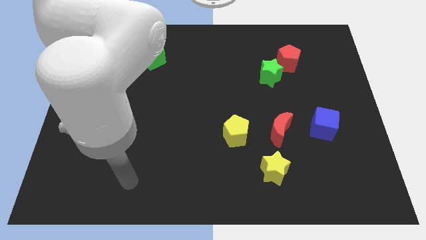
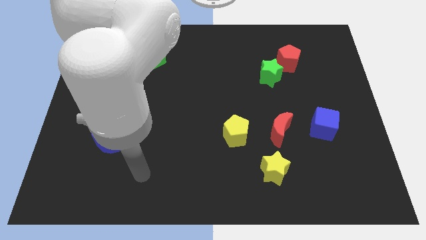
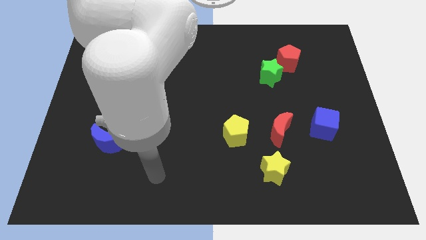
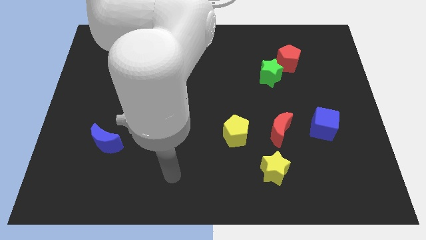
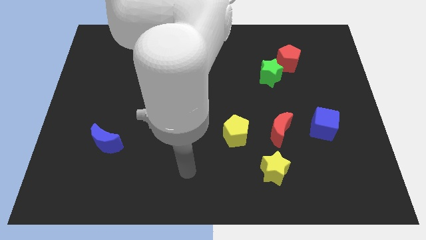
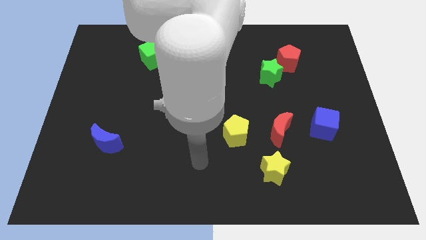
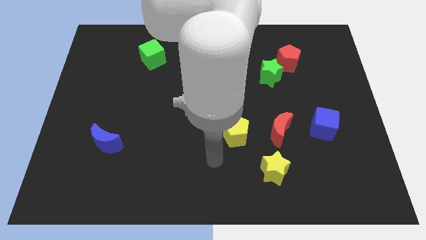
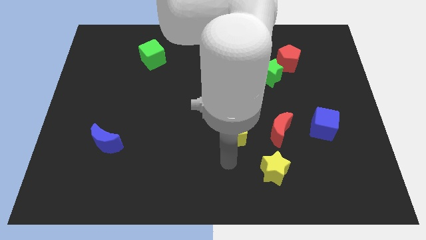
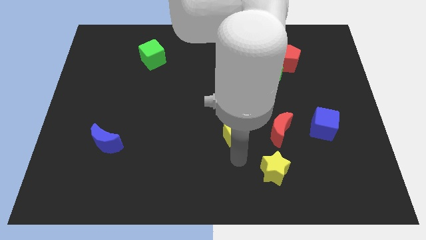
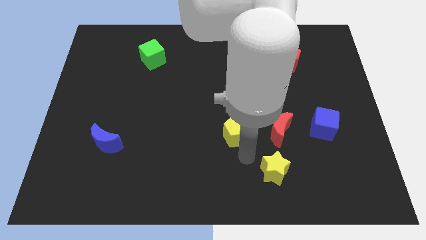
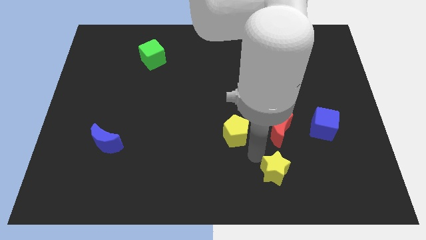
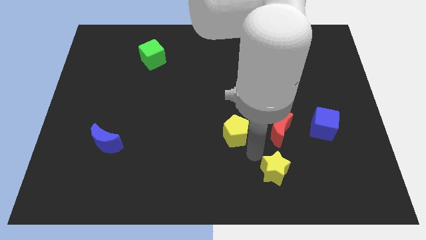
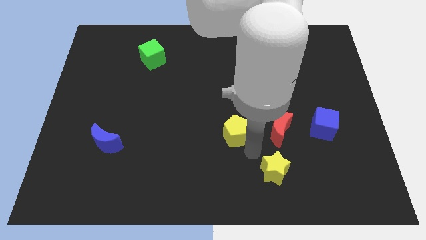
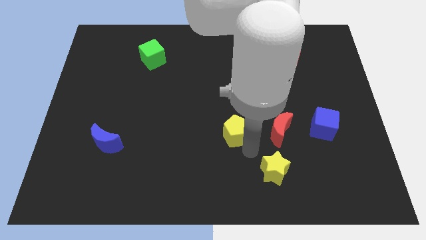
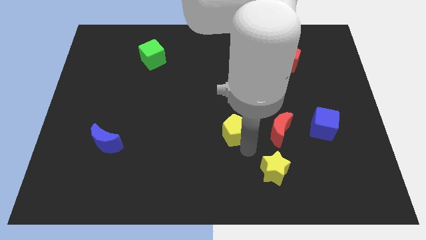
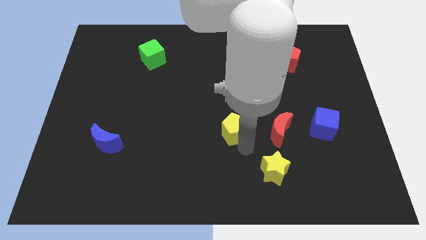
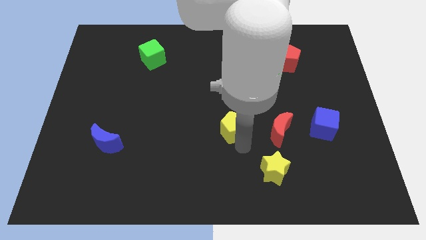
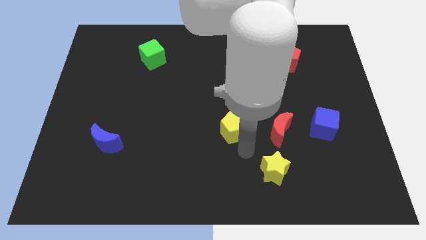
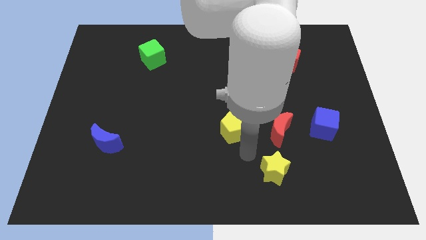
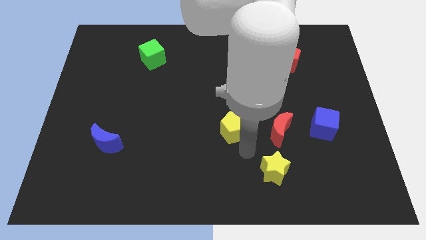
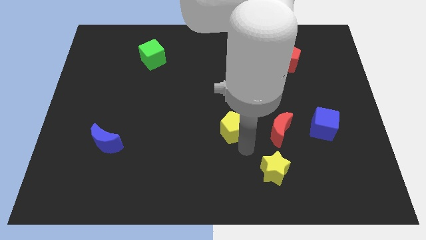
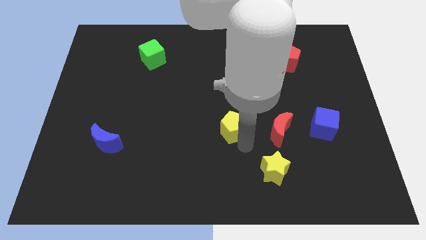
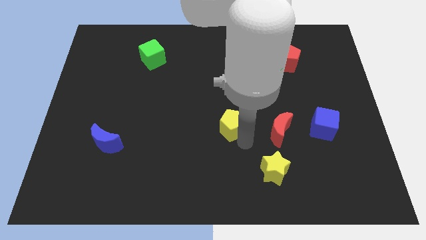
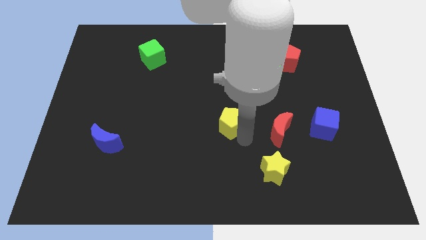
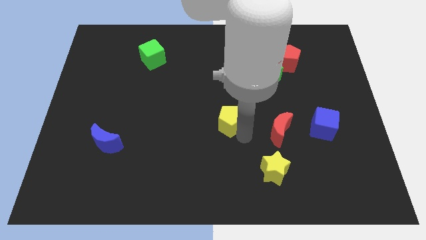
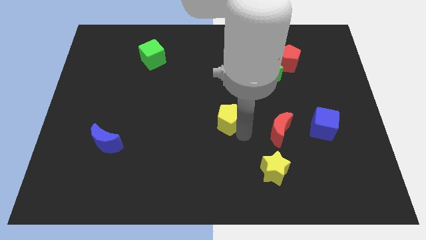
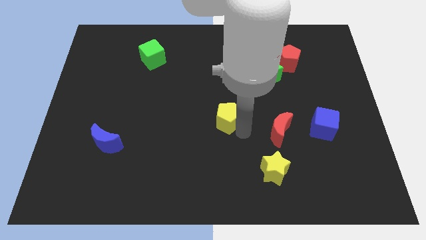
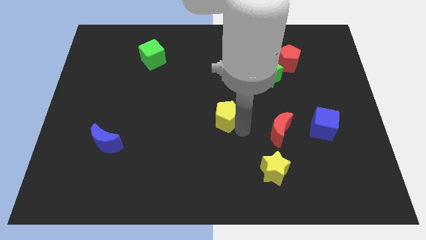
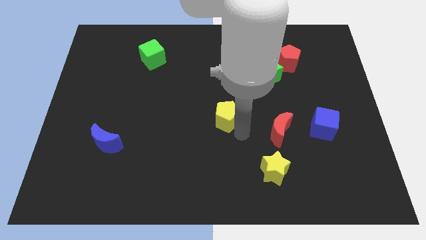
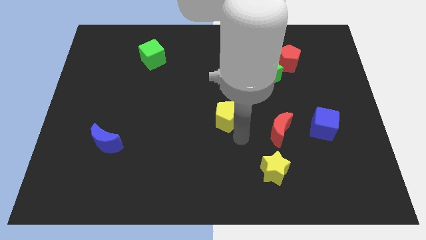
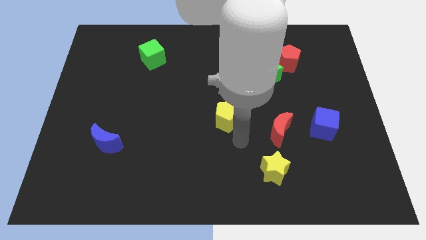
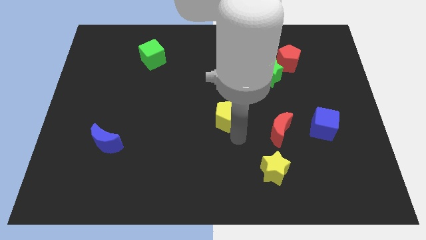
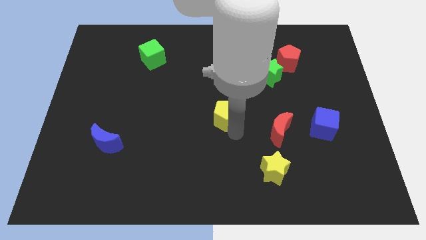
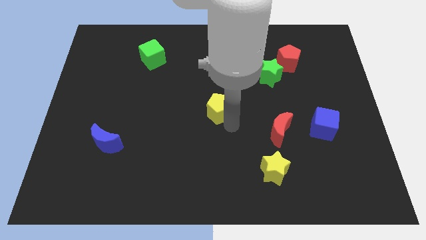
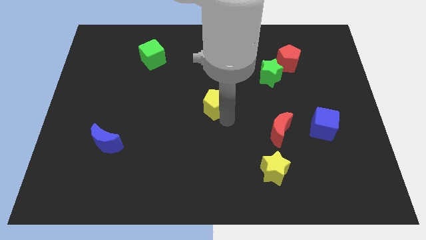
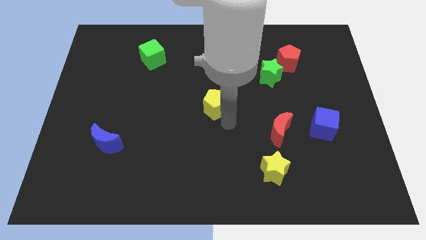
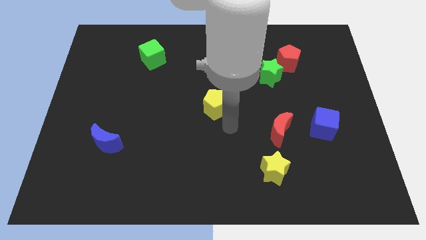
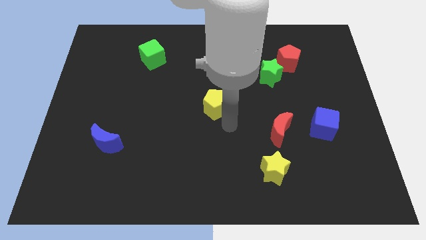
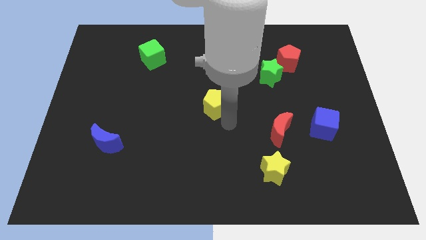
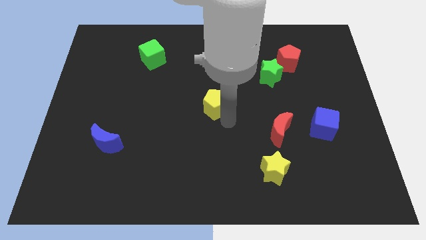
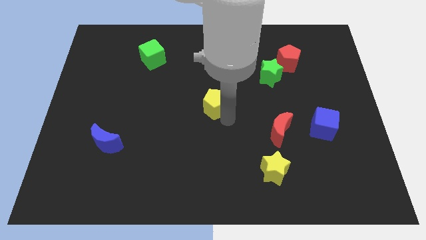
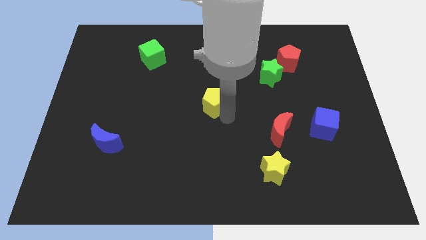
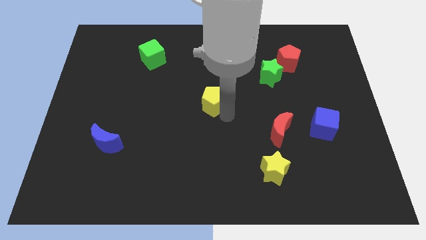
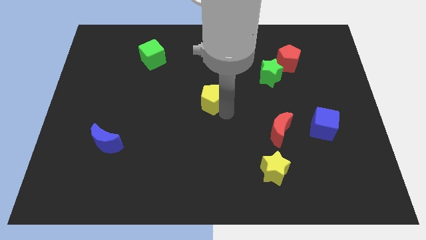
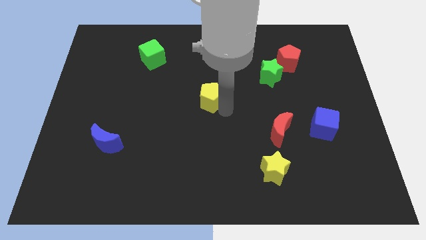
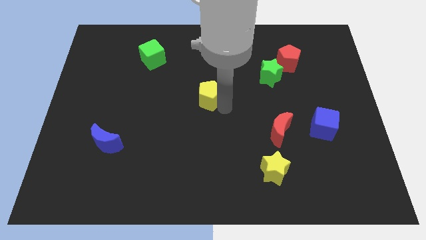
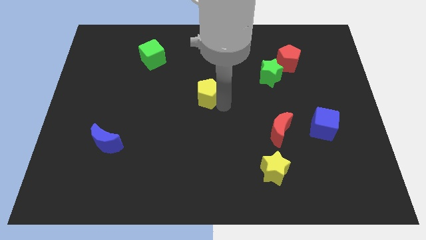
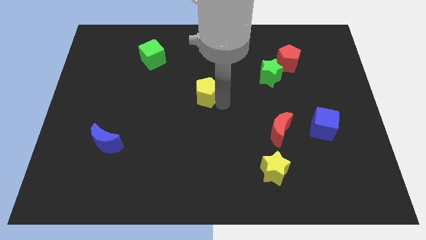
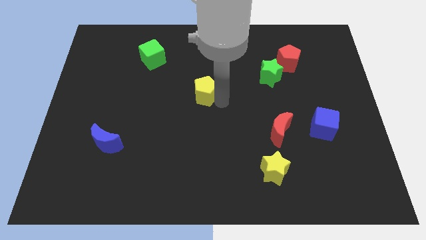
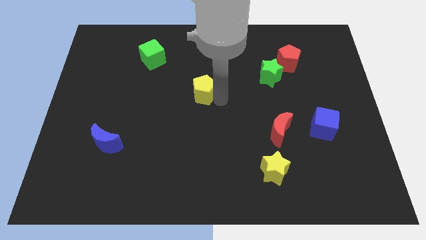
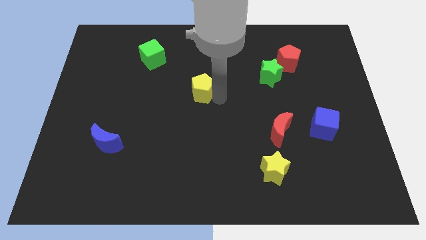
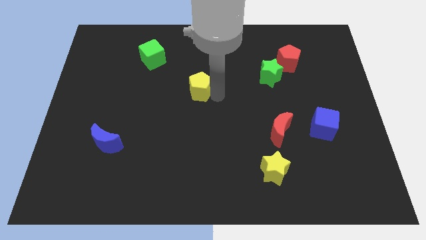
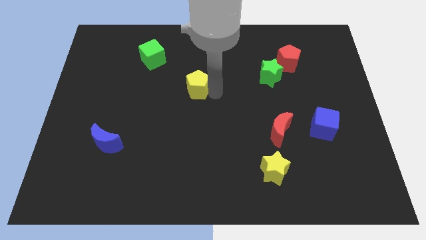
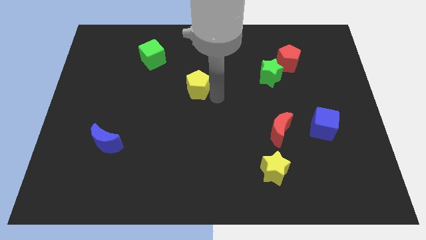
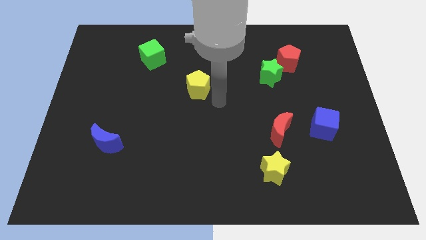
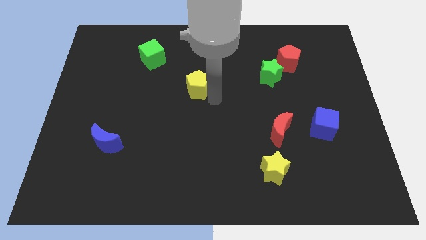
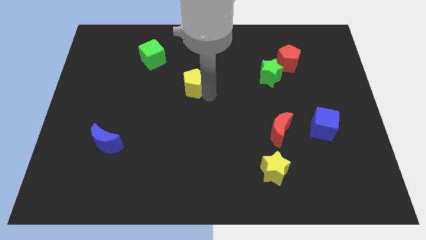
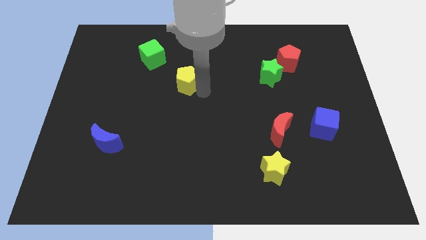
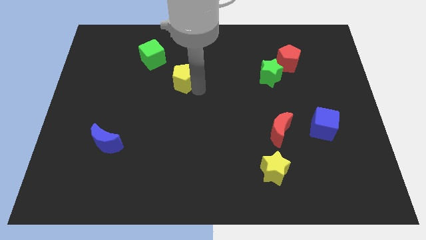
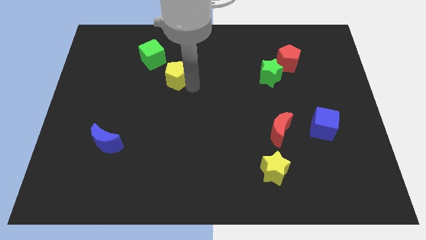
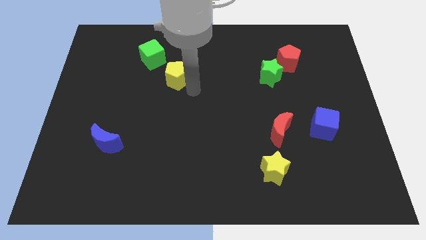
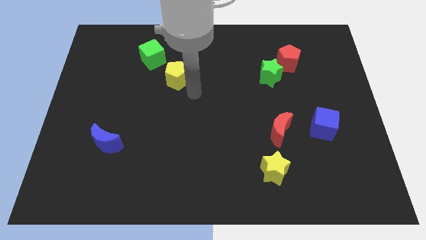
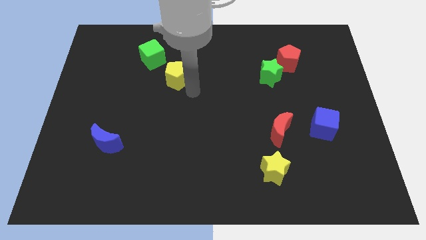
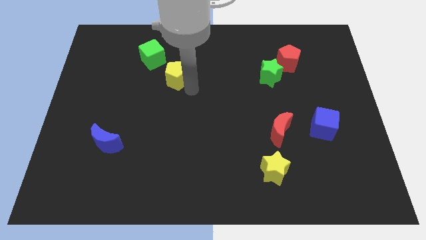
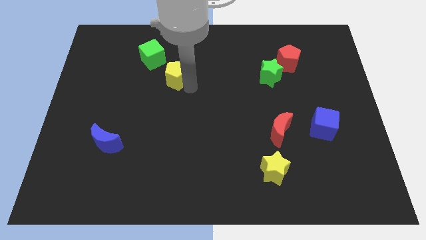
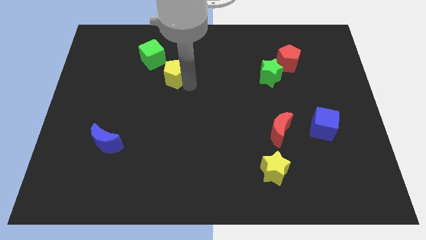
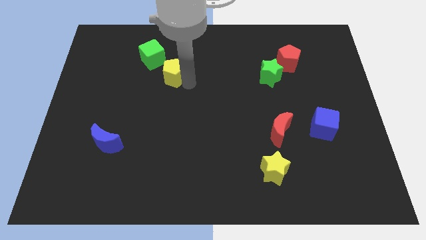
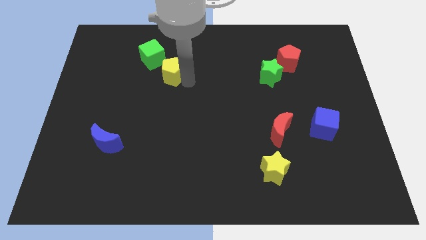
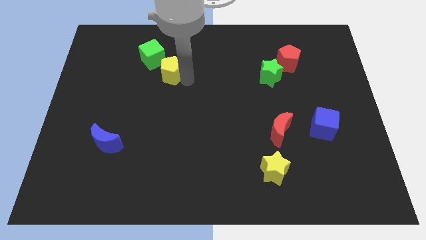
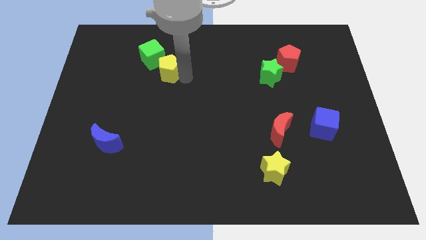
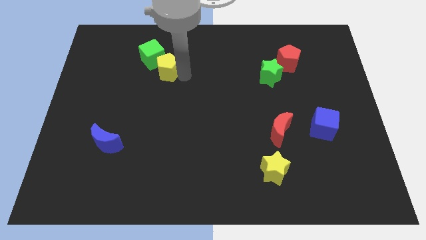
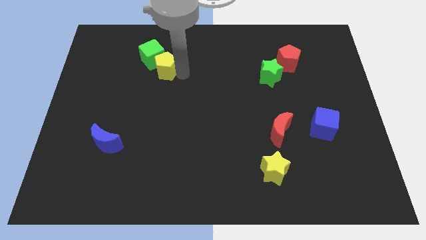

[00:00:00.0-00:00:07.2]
put the yellow pentagon towards the green cube
